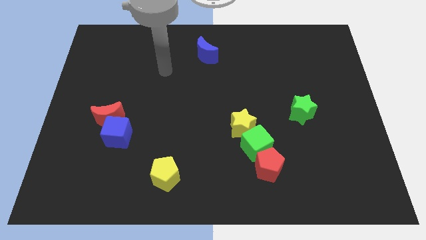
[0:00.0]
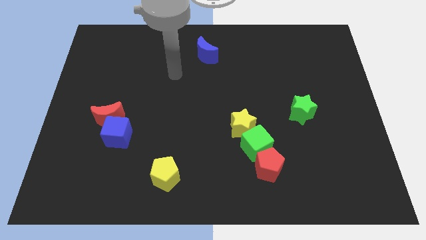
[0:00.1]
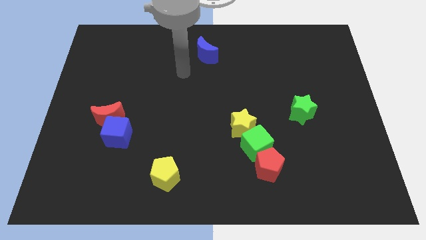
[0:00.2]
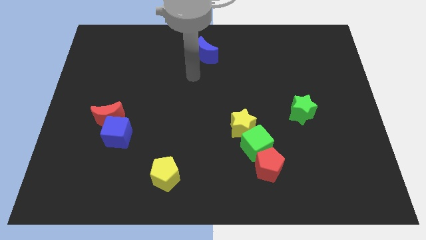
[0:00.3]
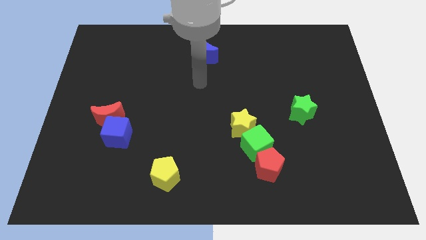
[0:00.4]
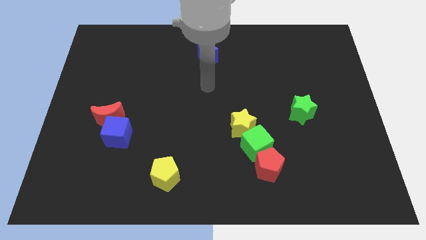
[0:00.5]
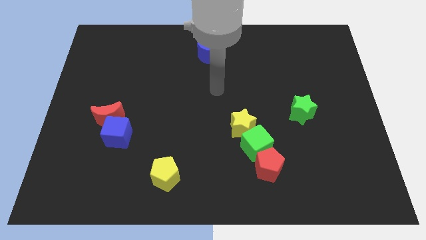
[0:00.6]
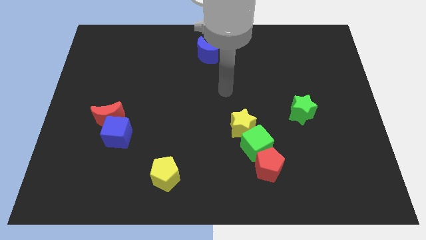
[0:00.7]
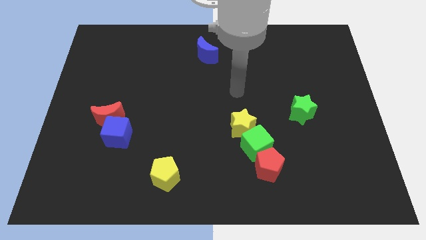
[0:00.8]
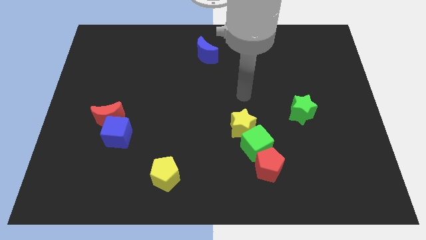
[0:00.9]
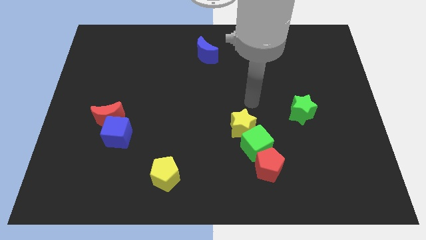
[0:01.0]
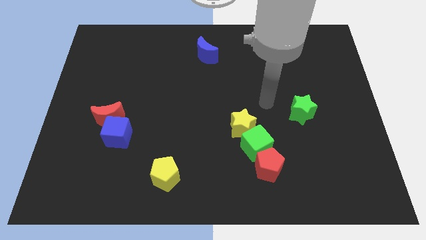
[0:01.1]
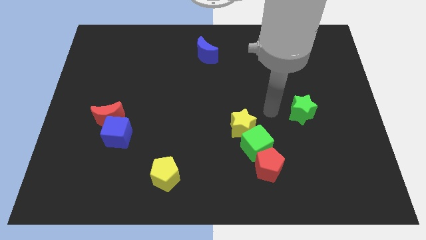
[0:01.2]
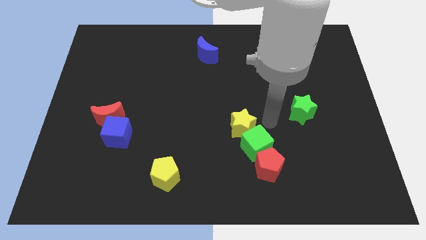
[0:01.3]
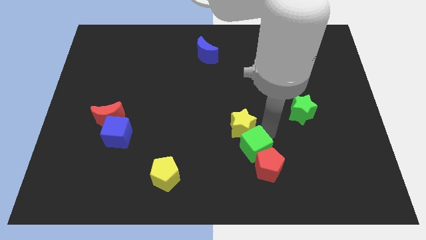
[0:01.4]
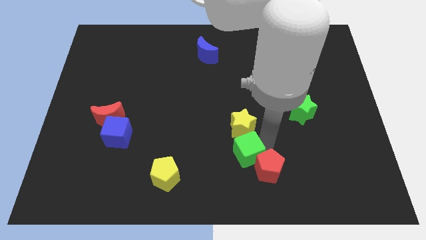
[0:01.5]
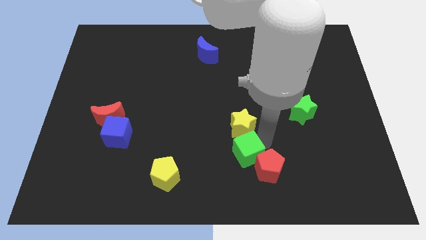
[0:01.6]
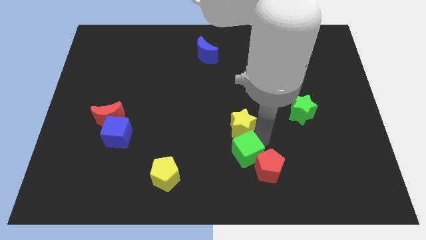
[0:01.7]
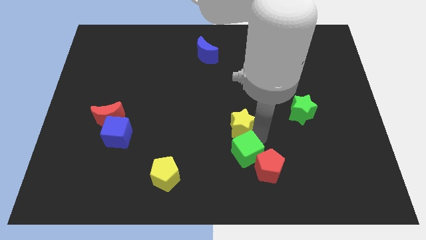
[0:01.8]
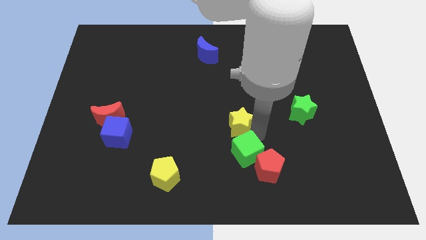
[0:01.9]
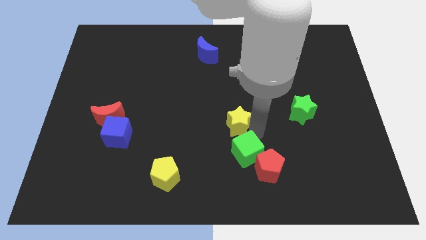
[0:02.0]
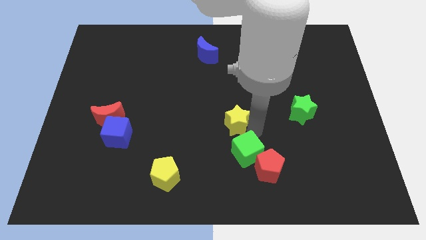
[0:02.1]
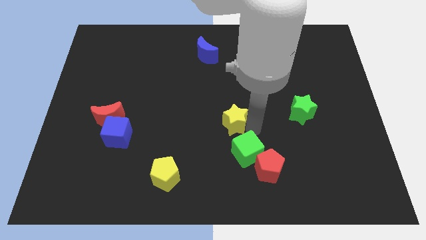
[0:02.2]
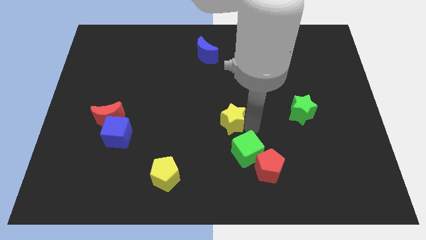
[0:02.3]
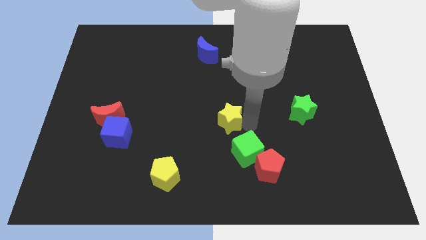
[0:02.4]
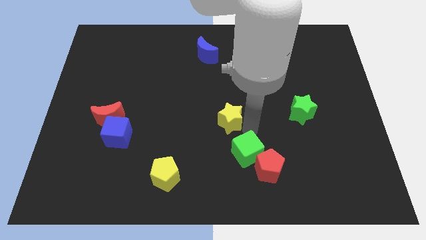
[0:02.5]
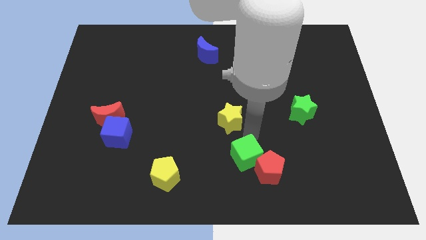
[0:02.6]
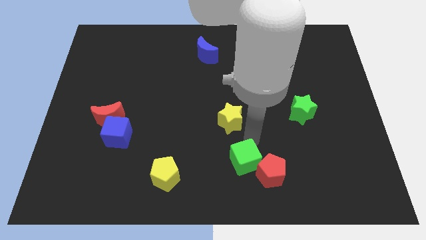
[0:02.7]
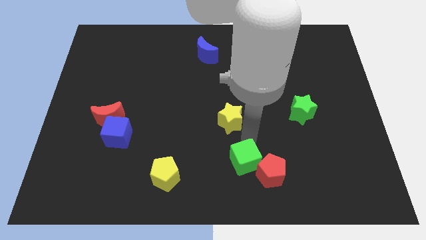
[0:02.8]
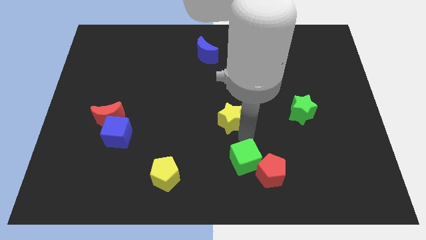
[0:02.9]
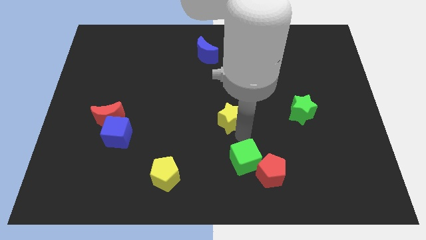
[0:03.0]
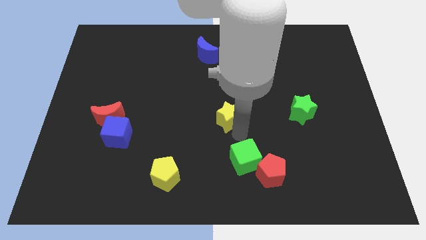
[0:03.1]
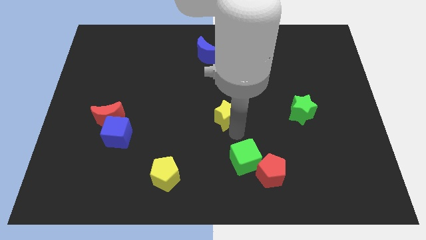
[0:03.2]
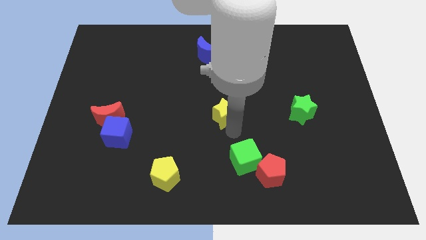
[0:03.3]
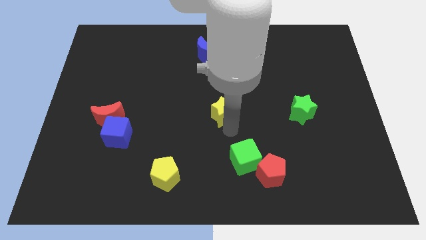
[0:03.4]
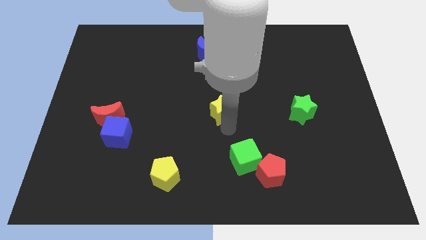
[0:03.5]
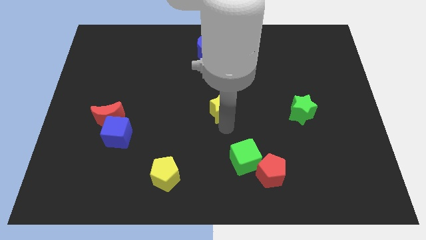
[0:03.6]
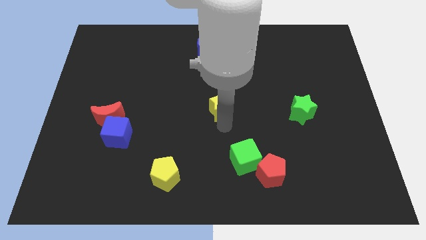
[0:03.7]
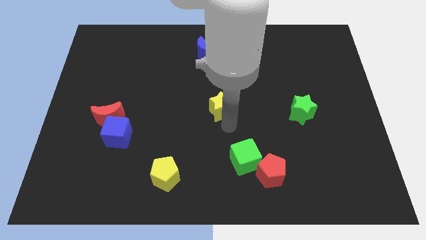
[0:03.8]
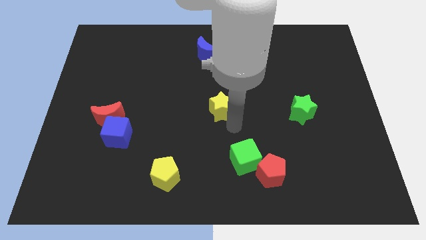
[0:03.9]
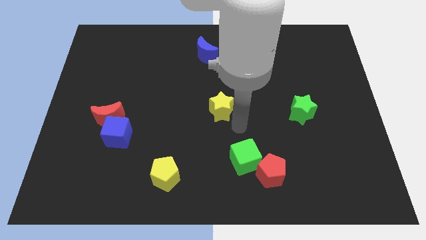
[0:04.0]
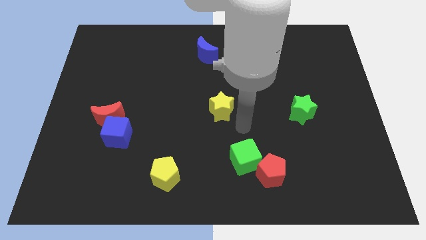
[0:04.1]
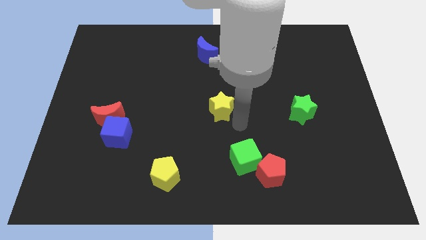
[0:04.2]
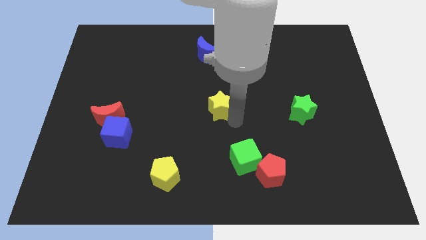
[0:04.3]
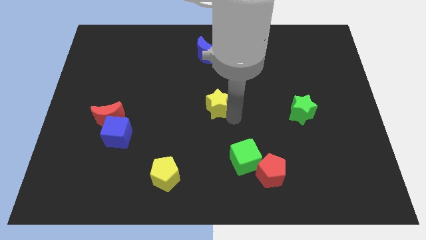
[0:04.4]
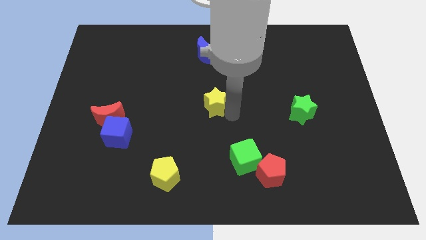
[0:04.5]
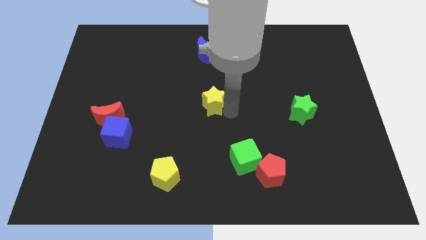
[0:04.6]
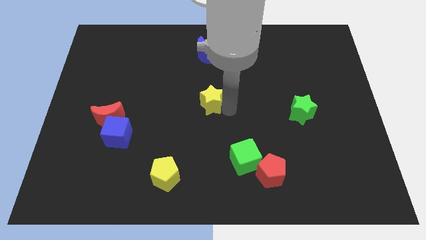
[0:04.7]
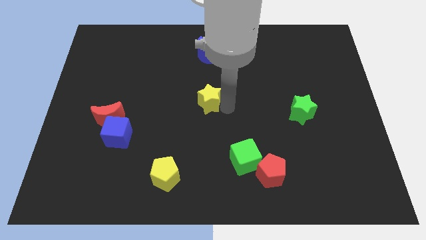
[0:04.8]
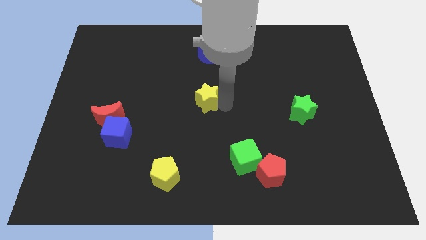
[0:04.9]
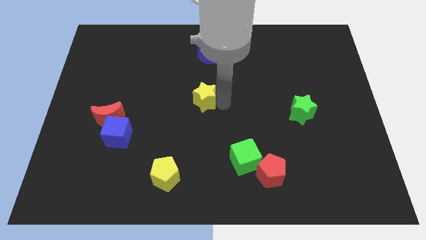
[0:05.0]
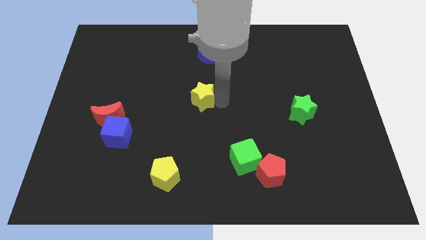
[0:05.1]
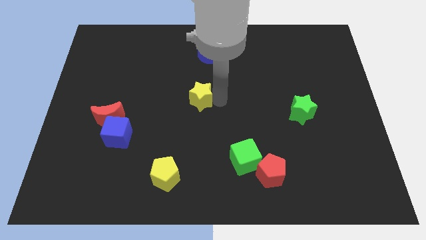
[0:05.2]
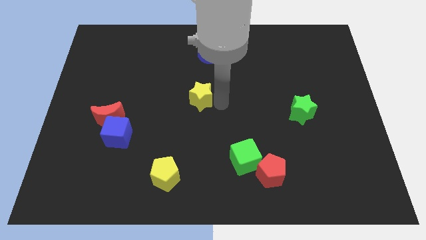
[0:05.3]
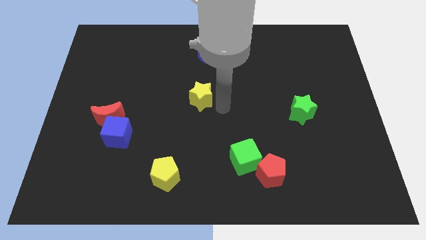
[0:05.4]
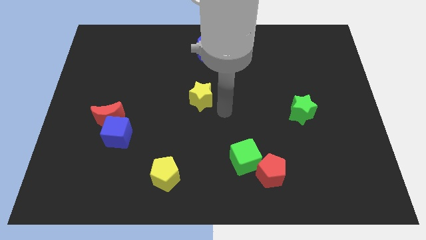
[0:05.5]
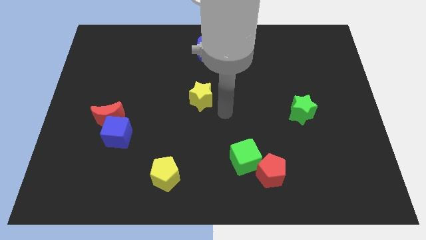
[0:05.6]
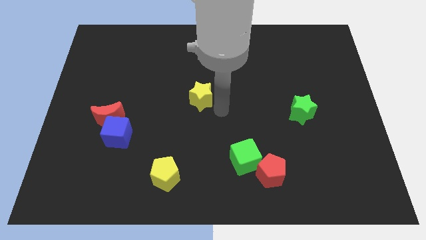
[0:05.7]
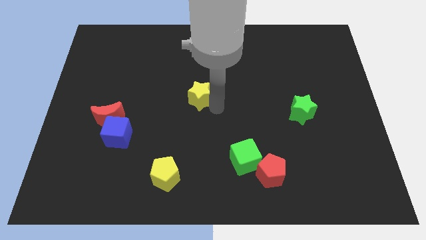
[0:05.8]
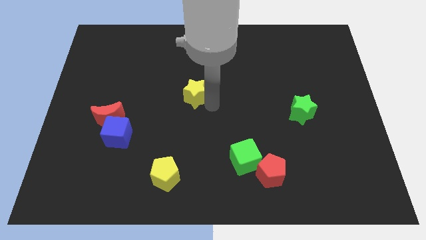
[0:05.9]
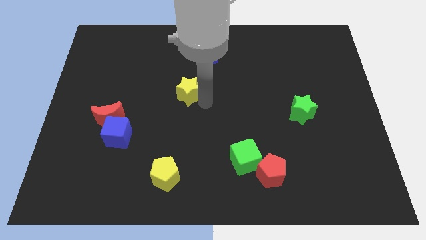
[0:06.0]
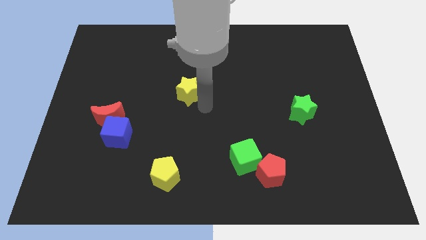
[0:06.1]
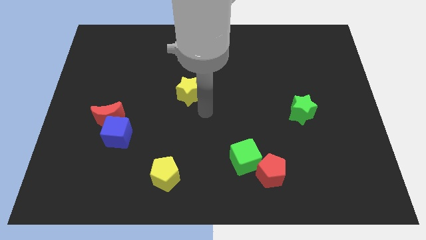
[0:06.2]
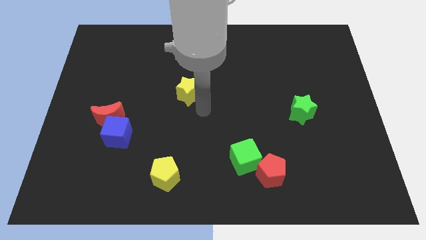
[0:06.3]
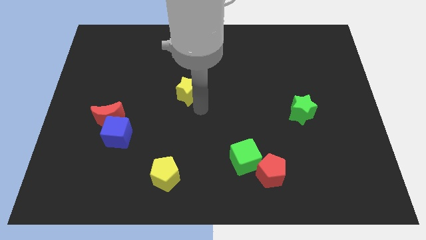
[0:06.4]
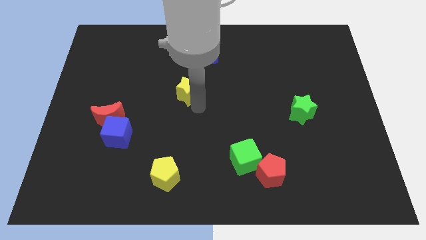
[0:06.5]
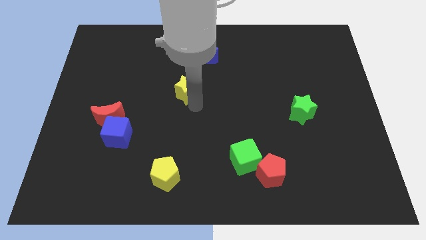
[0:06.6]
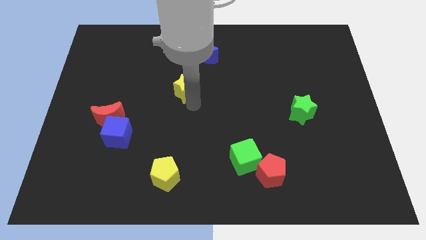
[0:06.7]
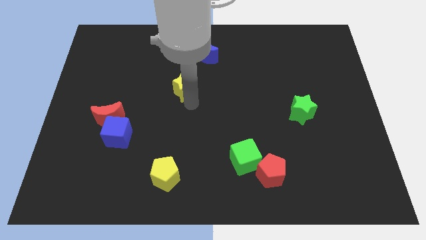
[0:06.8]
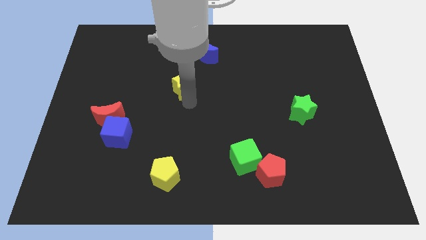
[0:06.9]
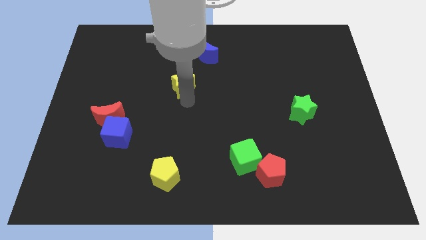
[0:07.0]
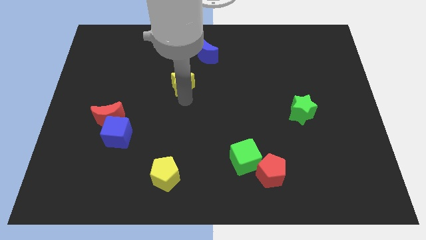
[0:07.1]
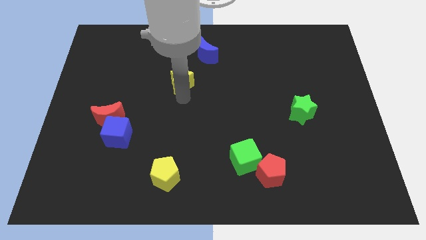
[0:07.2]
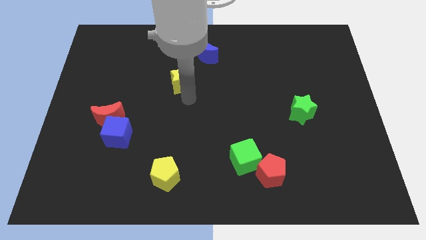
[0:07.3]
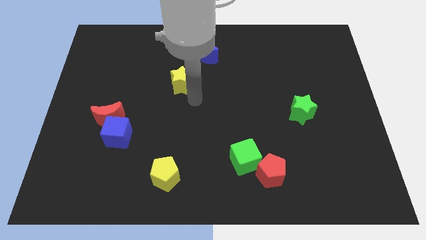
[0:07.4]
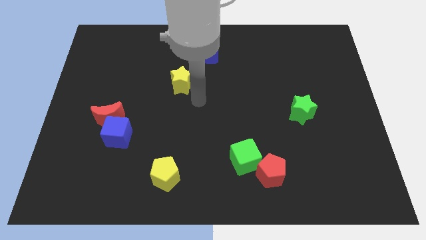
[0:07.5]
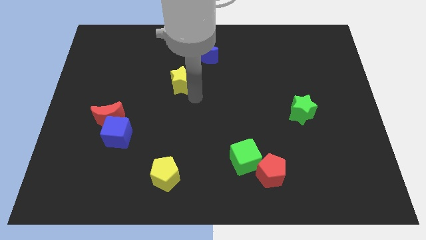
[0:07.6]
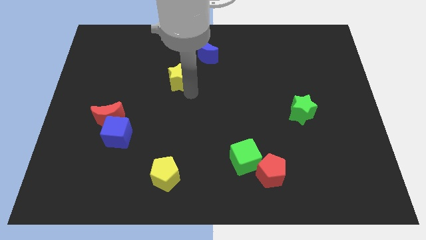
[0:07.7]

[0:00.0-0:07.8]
move the yellow star up and left
